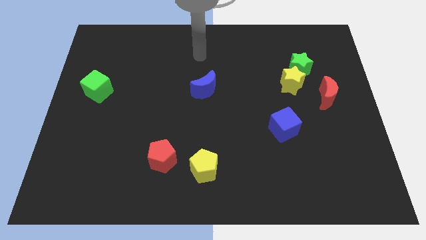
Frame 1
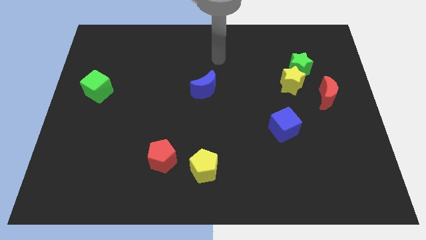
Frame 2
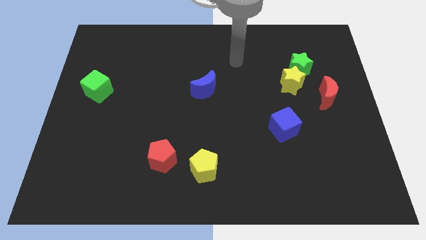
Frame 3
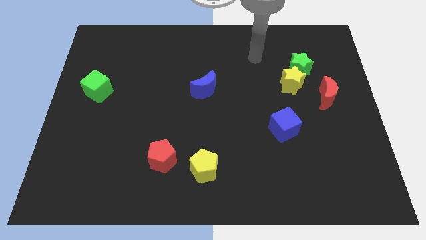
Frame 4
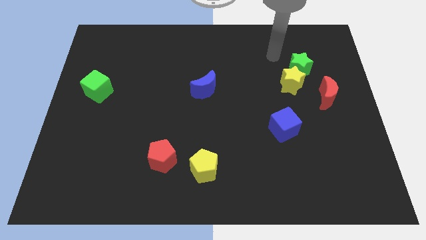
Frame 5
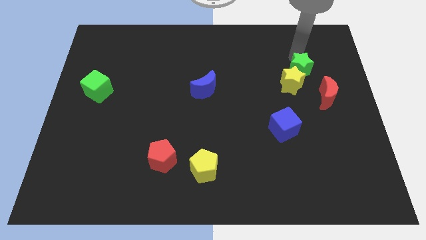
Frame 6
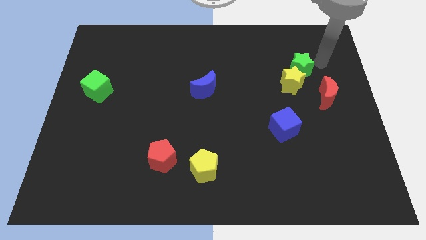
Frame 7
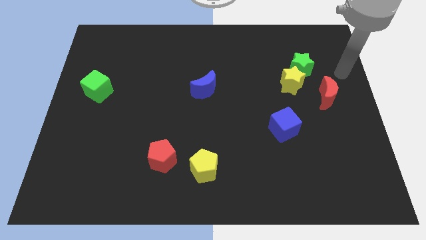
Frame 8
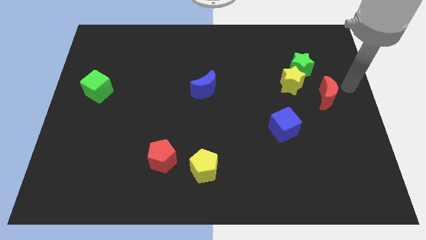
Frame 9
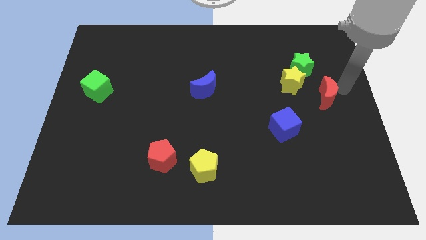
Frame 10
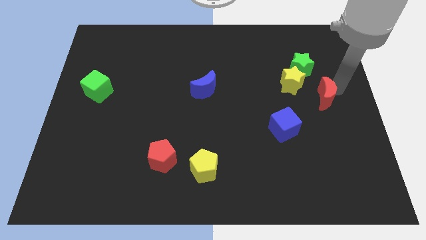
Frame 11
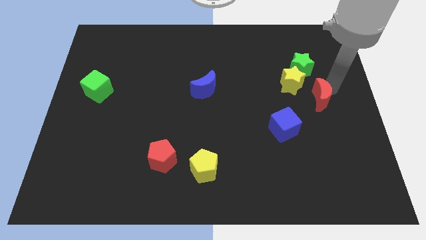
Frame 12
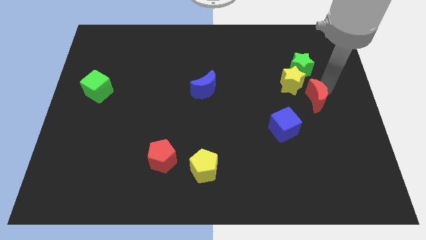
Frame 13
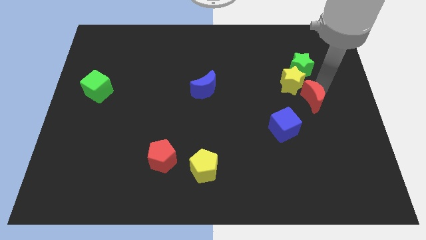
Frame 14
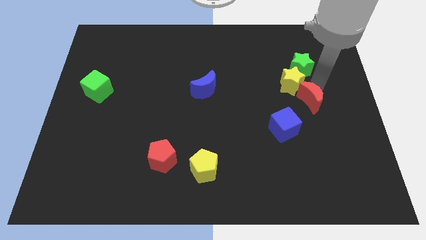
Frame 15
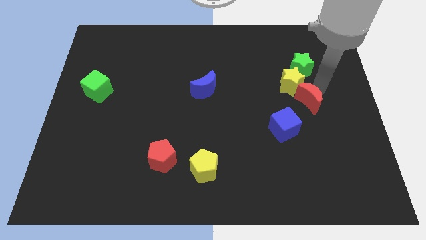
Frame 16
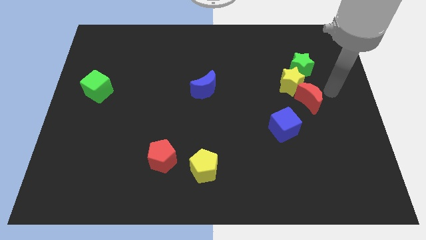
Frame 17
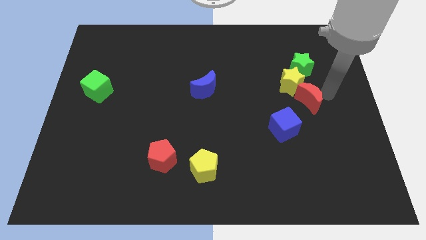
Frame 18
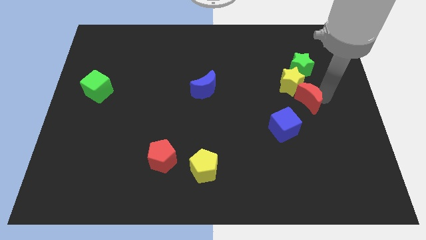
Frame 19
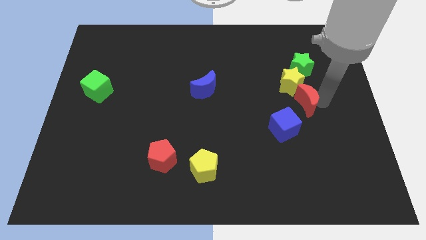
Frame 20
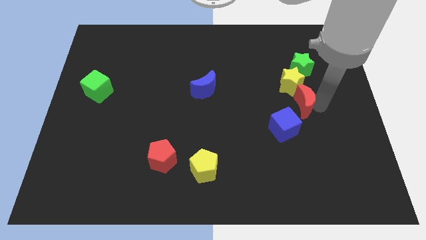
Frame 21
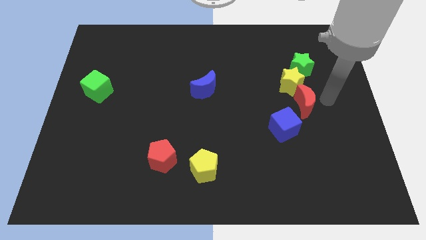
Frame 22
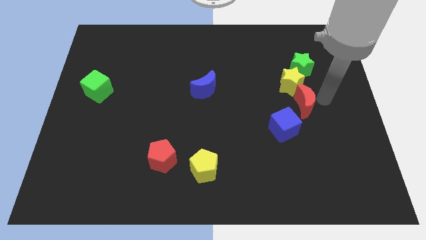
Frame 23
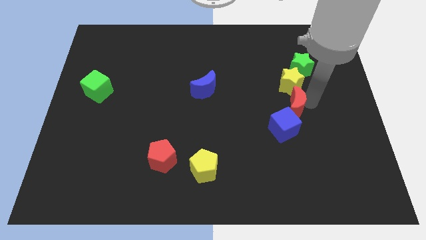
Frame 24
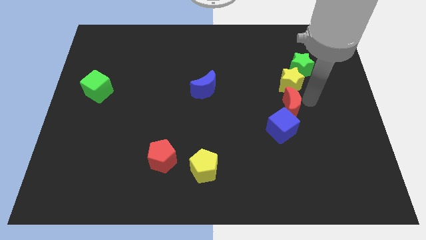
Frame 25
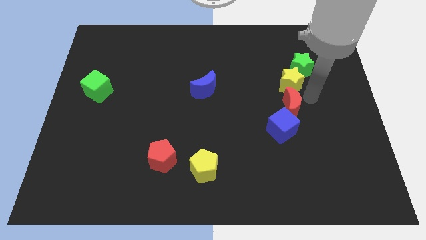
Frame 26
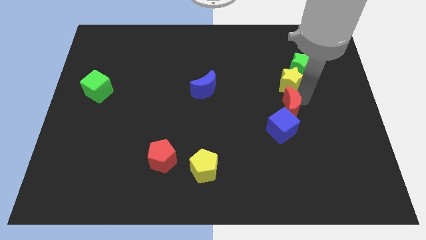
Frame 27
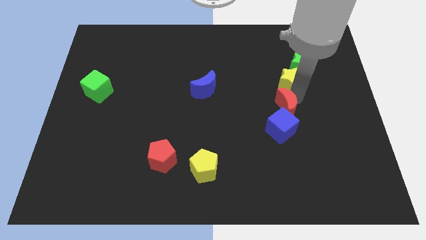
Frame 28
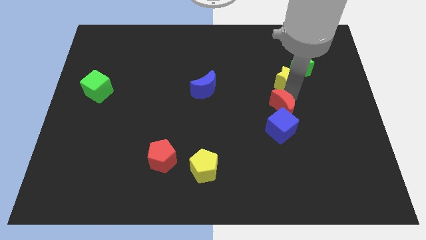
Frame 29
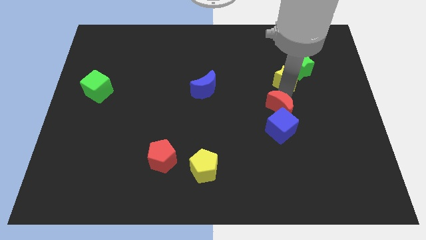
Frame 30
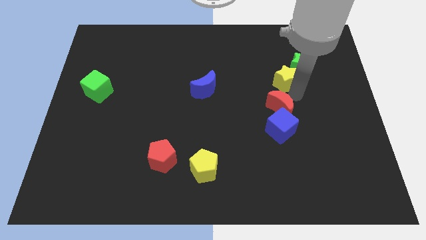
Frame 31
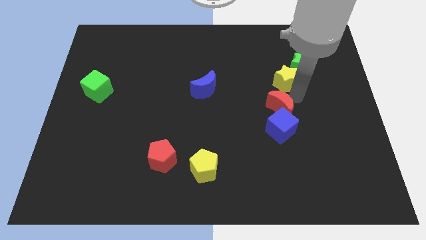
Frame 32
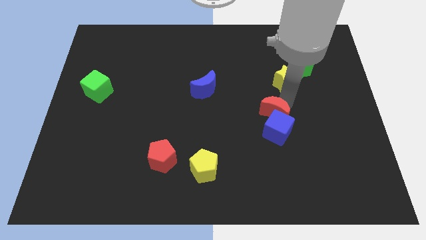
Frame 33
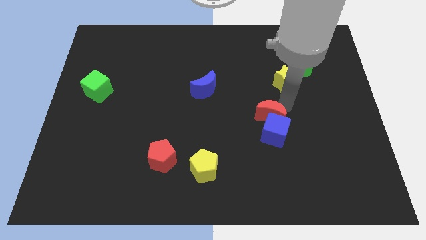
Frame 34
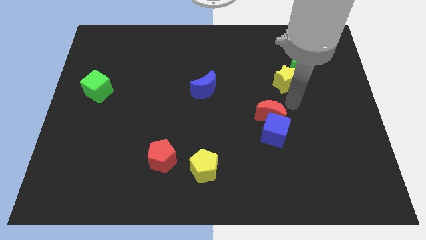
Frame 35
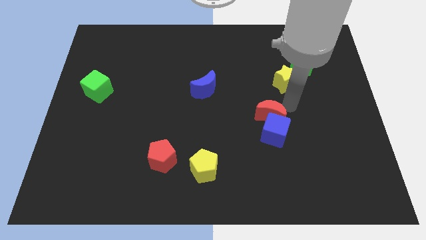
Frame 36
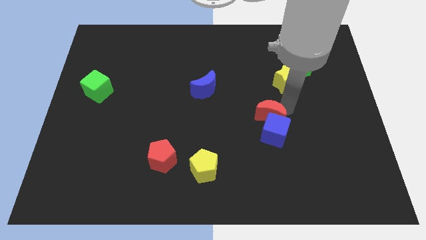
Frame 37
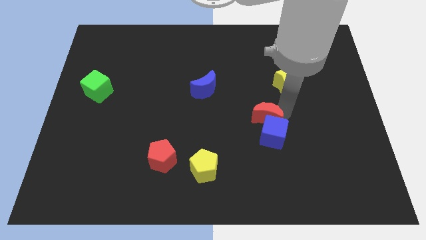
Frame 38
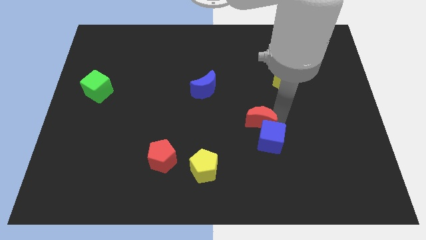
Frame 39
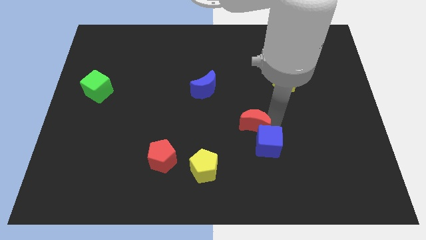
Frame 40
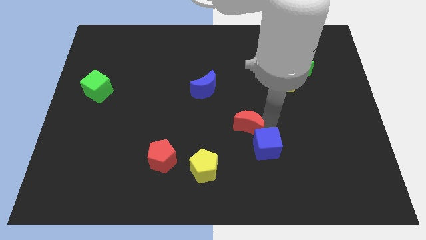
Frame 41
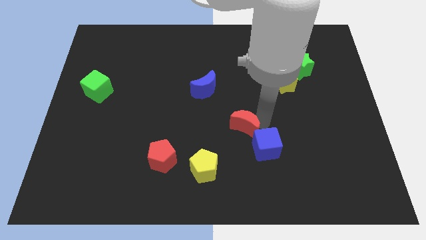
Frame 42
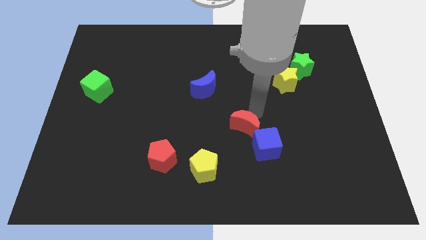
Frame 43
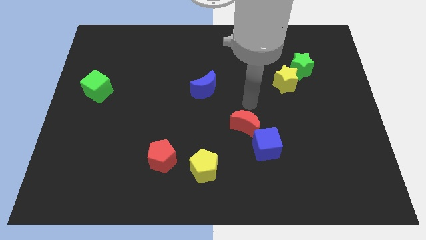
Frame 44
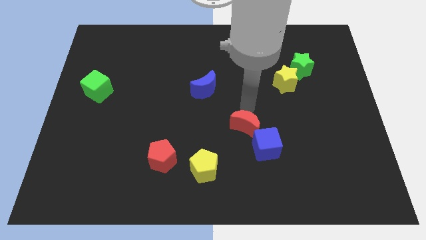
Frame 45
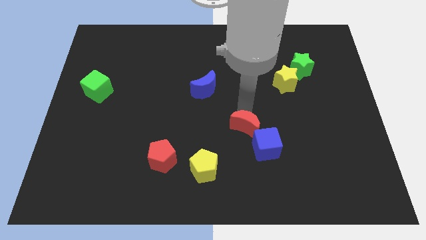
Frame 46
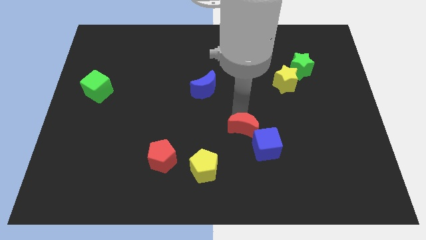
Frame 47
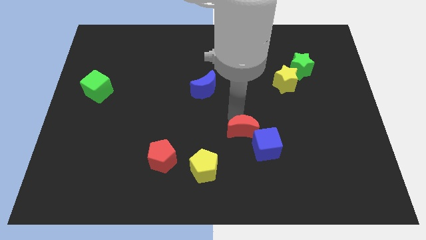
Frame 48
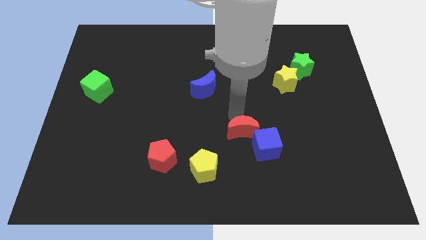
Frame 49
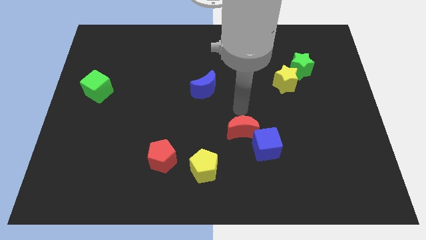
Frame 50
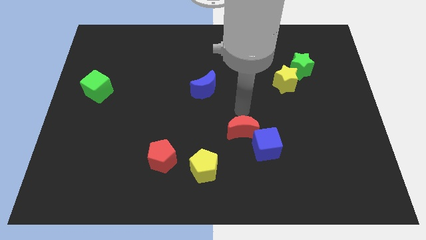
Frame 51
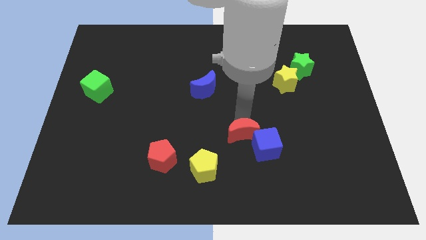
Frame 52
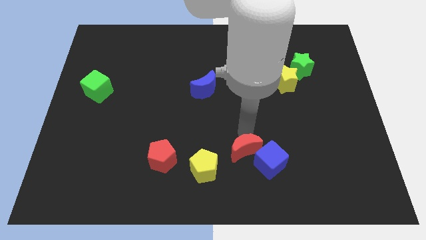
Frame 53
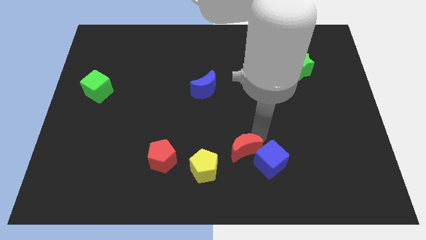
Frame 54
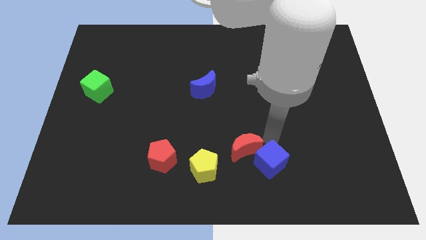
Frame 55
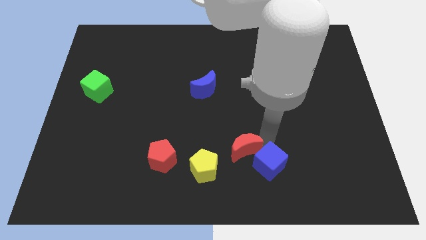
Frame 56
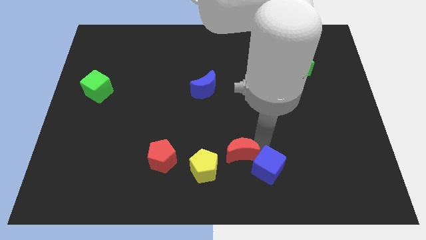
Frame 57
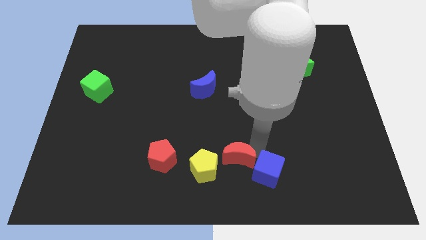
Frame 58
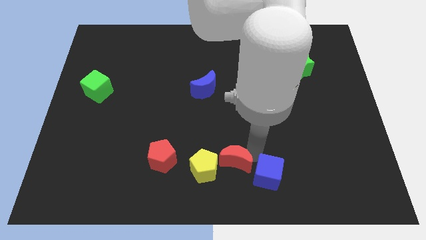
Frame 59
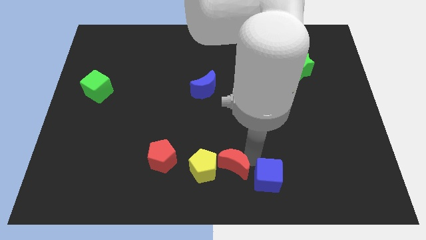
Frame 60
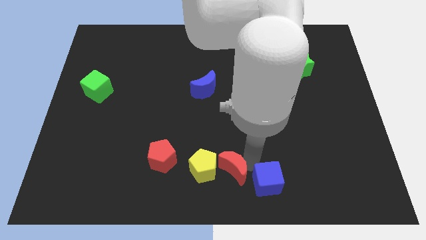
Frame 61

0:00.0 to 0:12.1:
slide the red moon next to the yellow pentagon

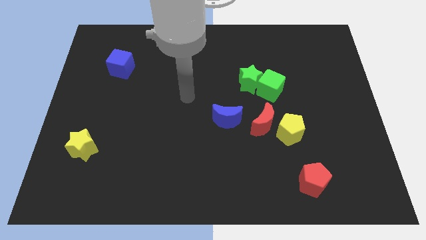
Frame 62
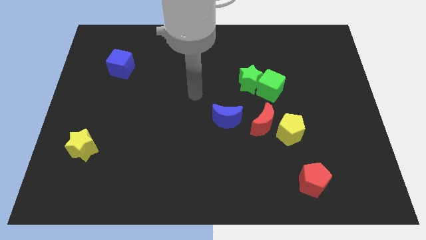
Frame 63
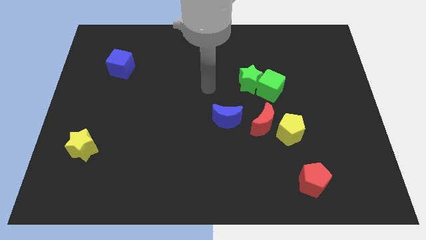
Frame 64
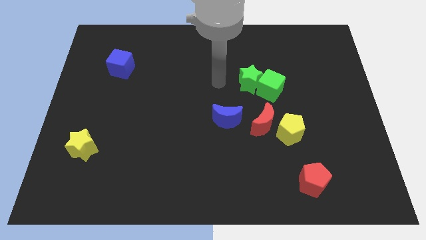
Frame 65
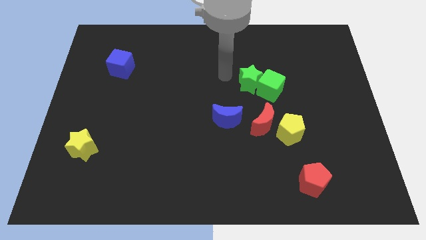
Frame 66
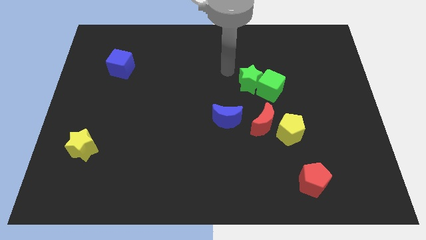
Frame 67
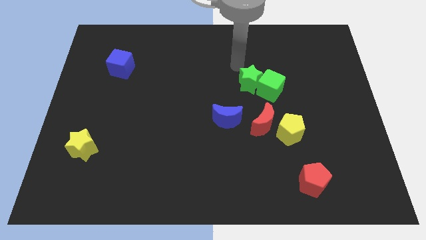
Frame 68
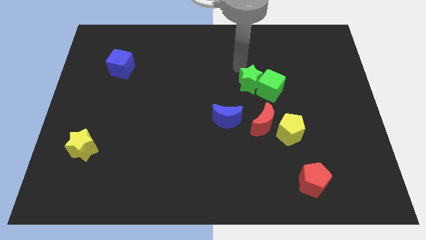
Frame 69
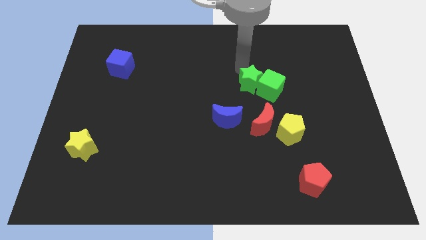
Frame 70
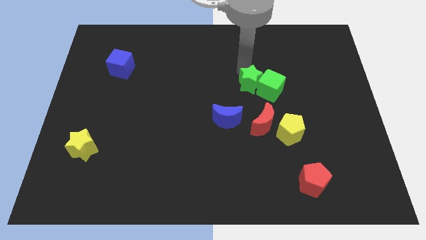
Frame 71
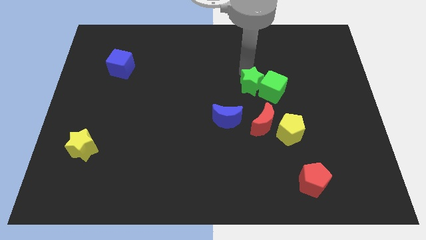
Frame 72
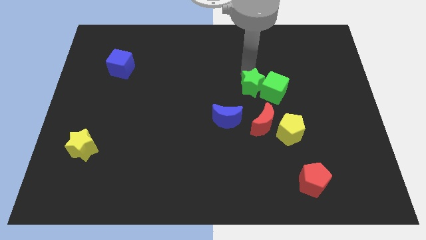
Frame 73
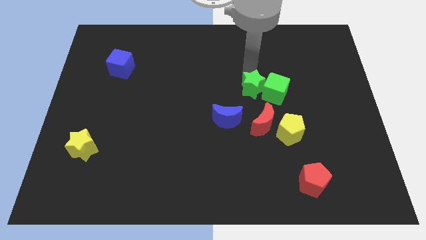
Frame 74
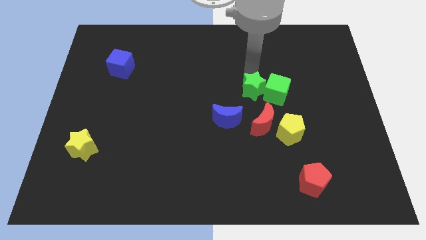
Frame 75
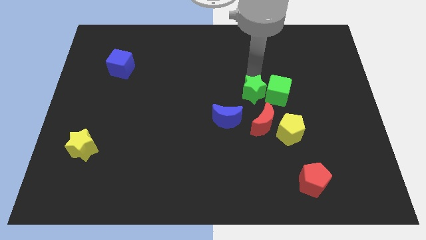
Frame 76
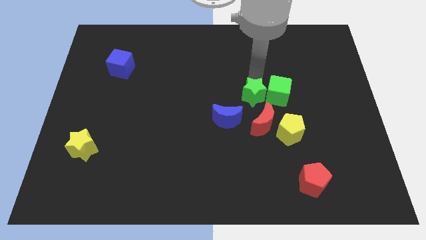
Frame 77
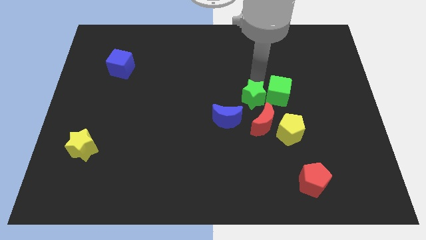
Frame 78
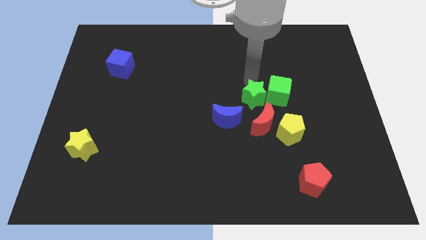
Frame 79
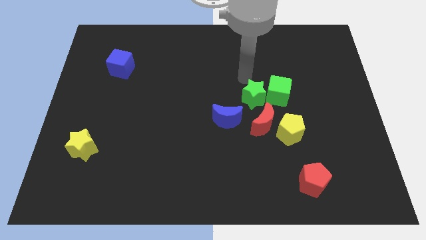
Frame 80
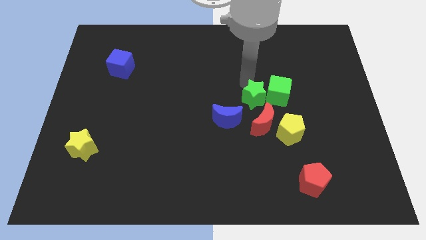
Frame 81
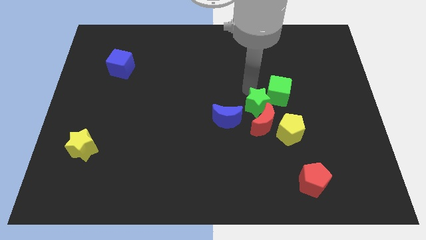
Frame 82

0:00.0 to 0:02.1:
put the green star next to the red moon
